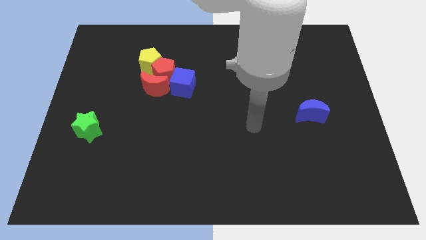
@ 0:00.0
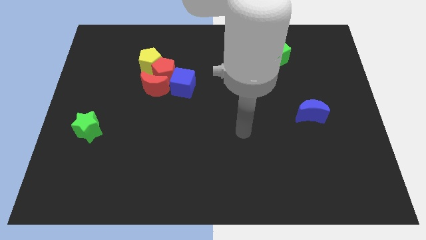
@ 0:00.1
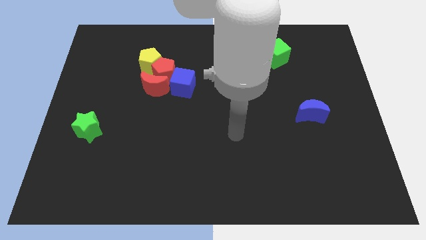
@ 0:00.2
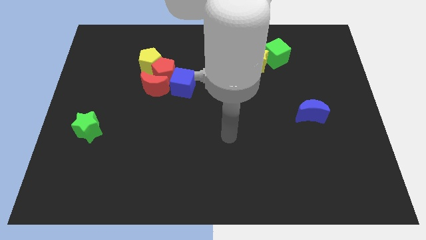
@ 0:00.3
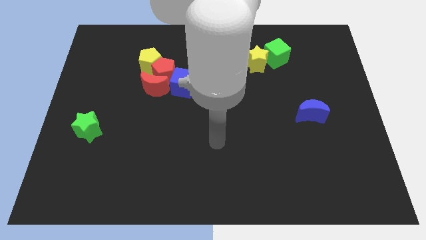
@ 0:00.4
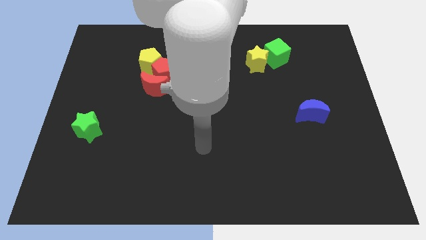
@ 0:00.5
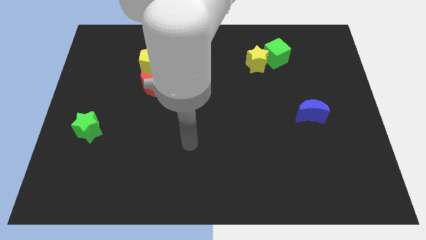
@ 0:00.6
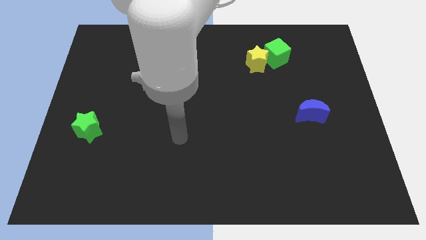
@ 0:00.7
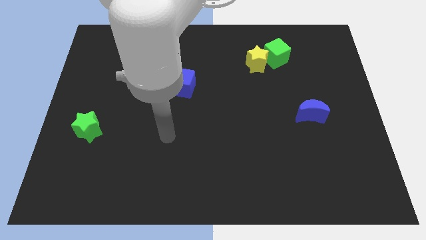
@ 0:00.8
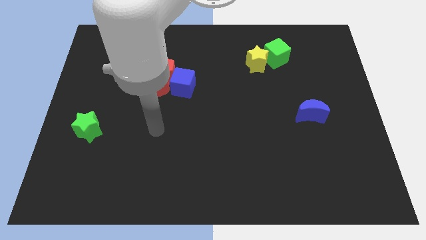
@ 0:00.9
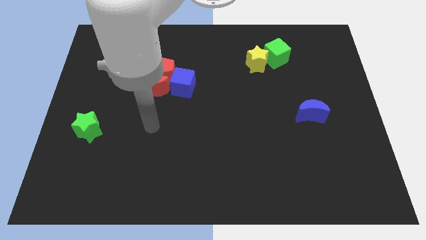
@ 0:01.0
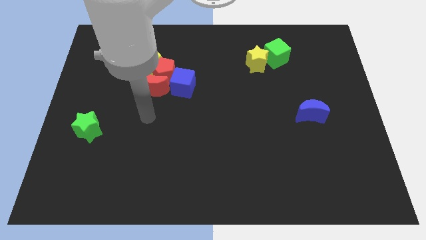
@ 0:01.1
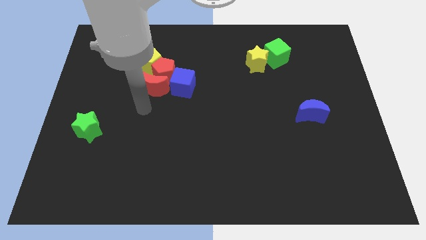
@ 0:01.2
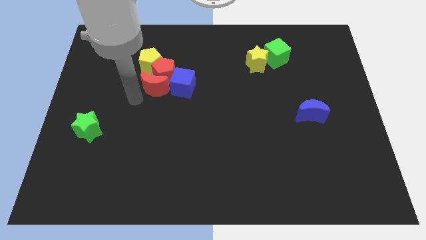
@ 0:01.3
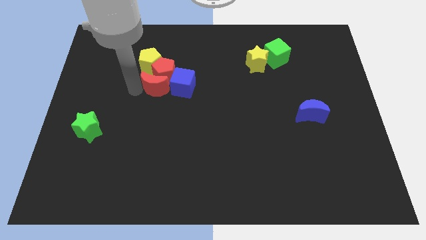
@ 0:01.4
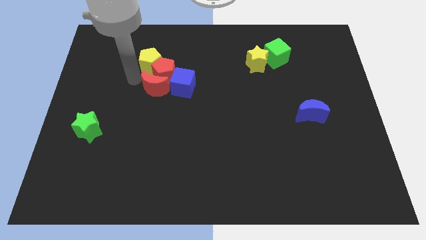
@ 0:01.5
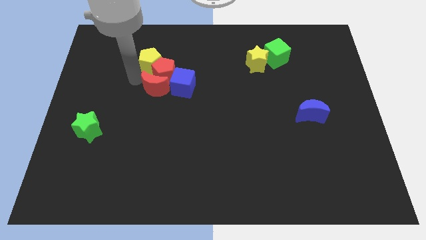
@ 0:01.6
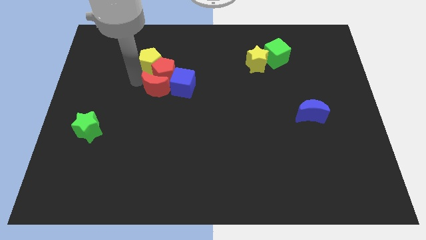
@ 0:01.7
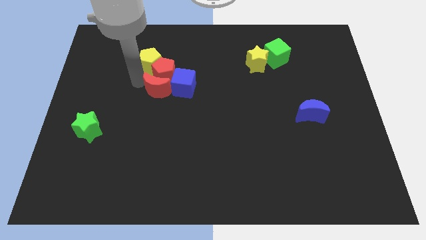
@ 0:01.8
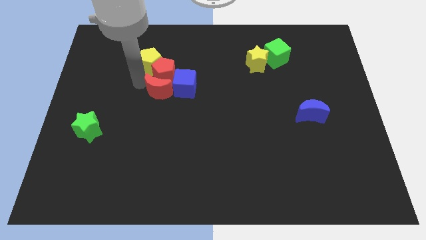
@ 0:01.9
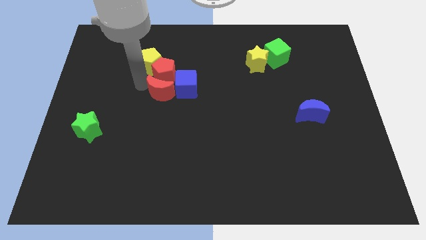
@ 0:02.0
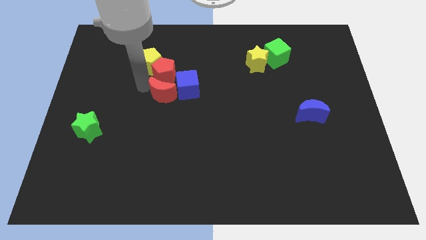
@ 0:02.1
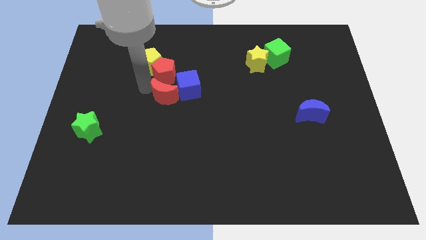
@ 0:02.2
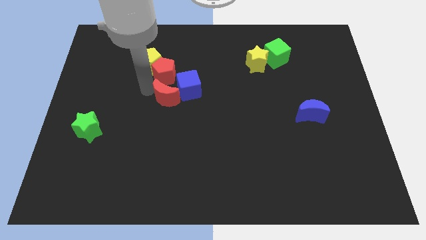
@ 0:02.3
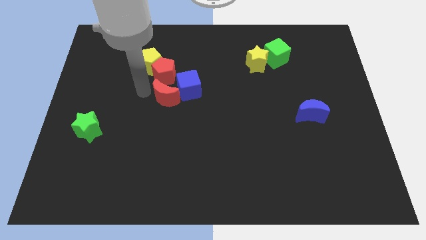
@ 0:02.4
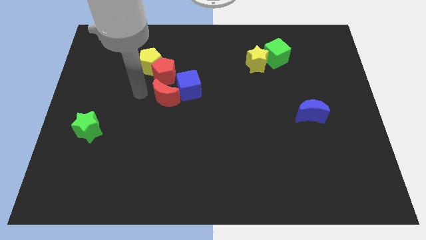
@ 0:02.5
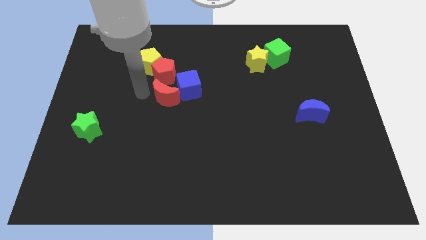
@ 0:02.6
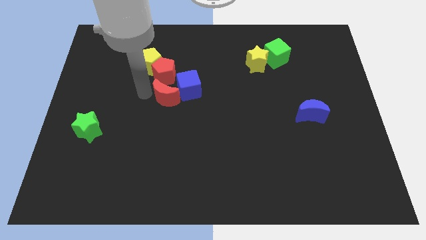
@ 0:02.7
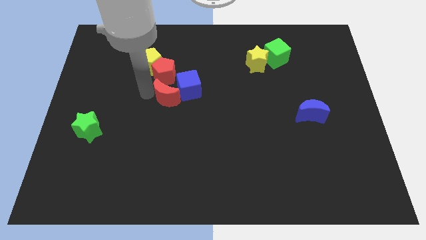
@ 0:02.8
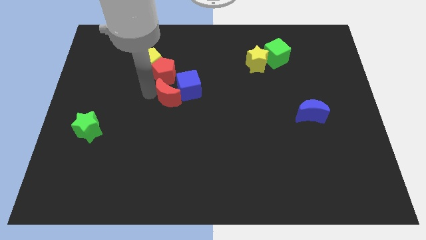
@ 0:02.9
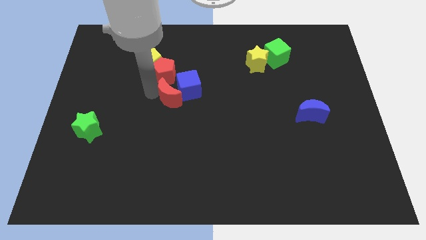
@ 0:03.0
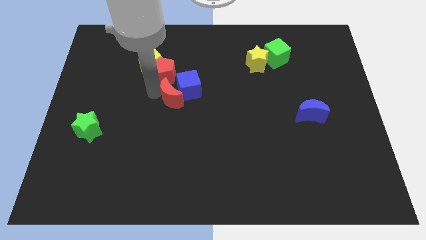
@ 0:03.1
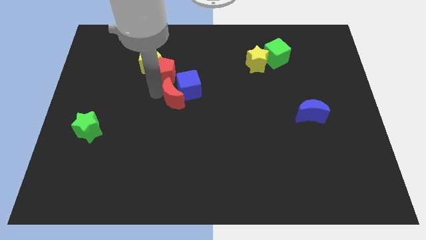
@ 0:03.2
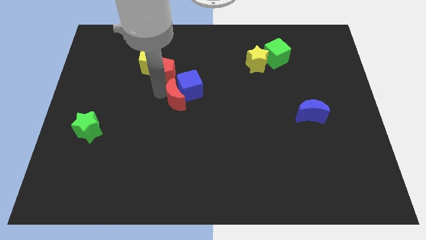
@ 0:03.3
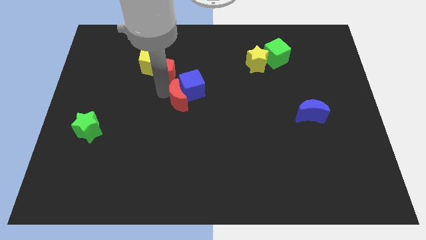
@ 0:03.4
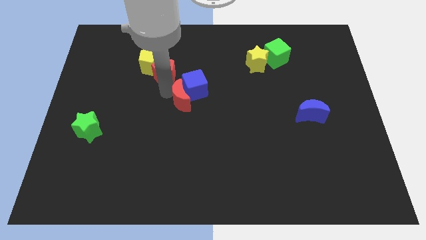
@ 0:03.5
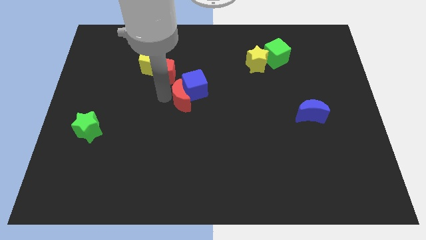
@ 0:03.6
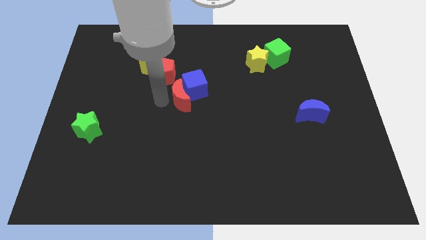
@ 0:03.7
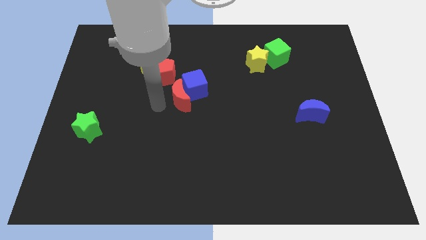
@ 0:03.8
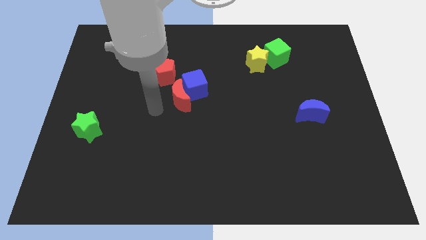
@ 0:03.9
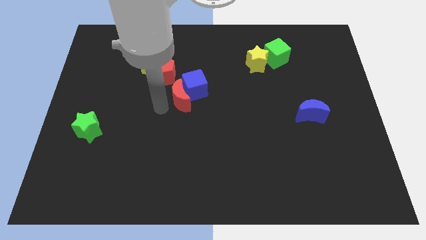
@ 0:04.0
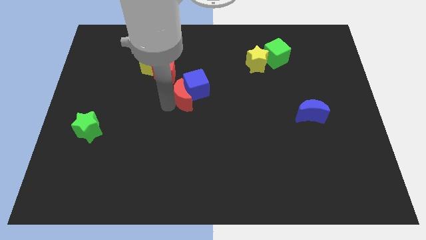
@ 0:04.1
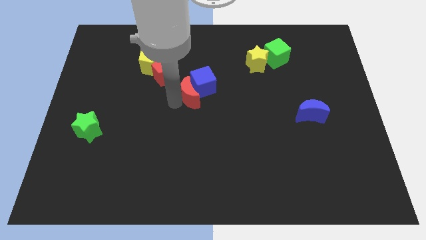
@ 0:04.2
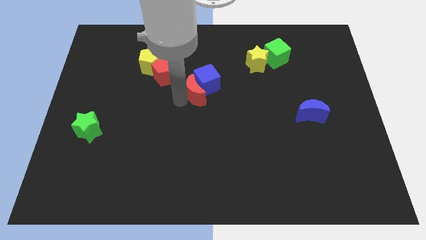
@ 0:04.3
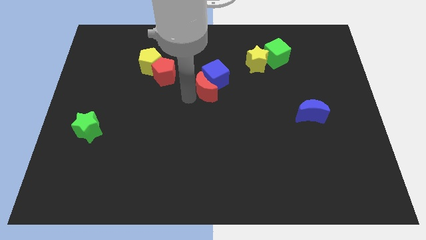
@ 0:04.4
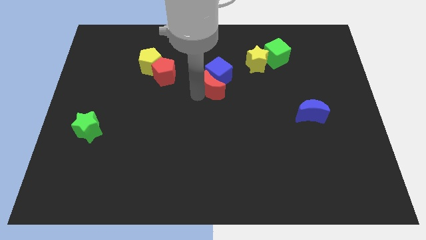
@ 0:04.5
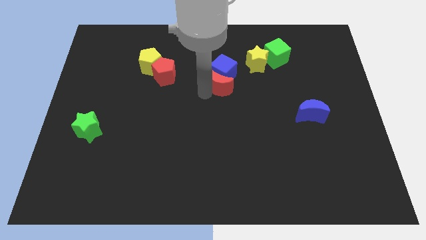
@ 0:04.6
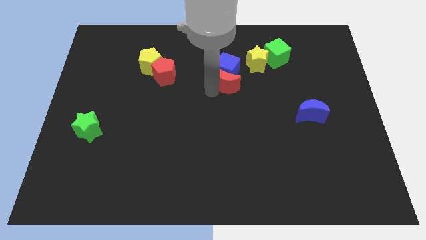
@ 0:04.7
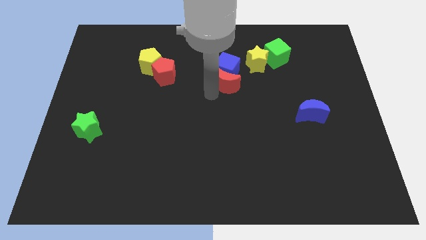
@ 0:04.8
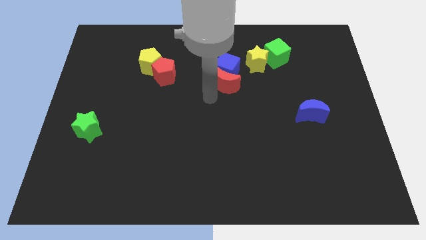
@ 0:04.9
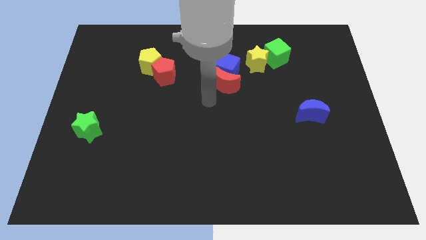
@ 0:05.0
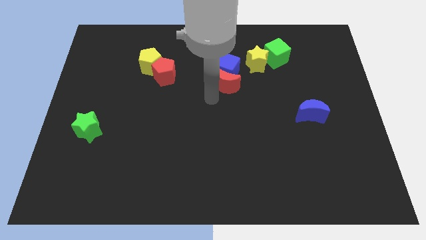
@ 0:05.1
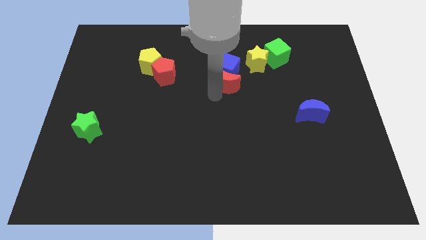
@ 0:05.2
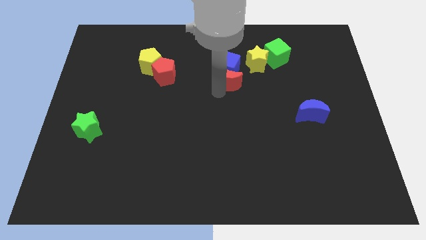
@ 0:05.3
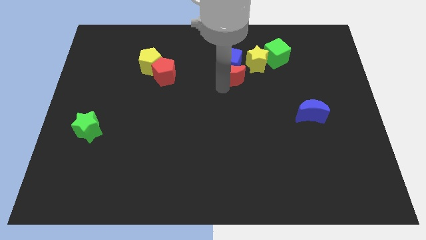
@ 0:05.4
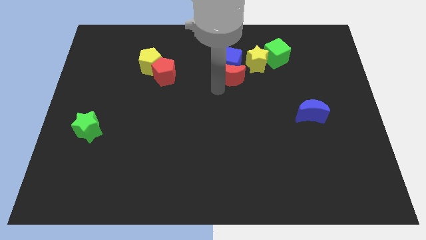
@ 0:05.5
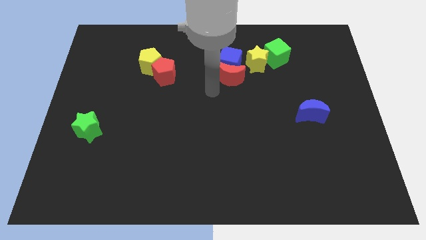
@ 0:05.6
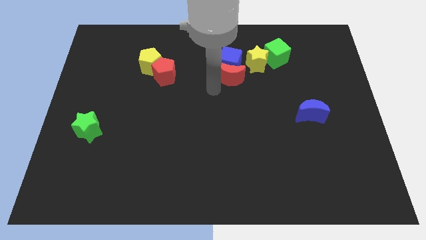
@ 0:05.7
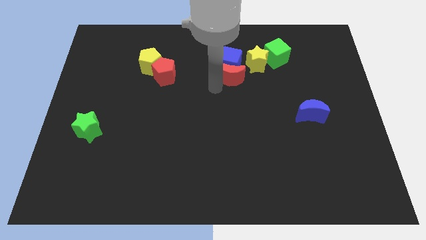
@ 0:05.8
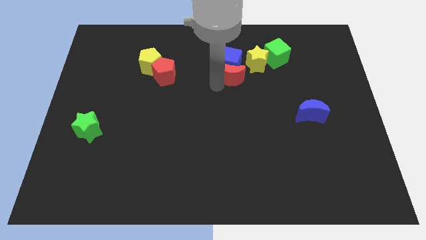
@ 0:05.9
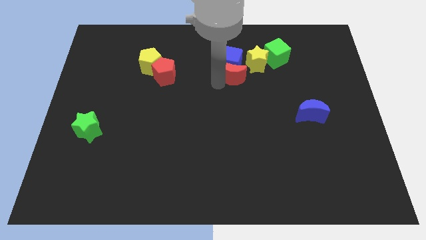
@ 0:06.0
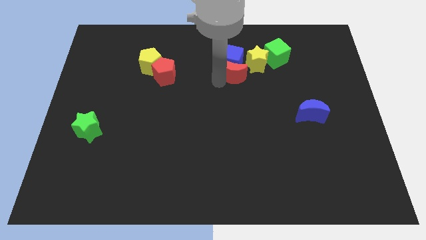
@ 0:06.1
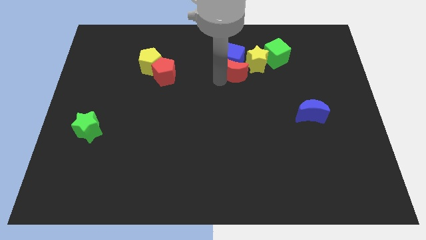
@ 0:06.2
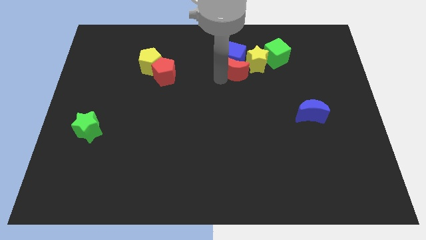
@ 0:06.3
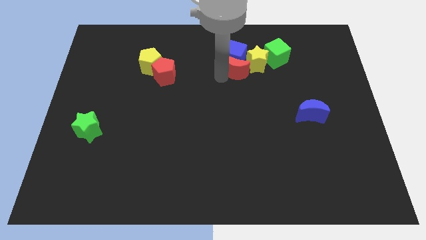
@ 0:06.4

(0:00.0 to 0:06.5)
slide the red moon to the yellow star
